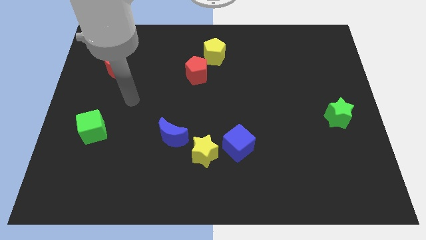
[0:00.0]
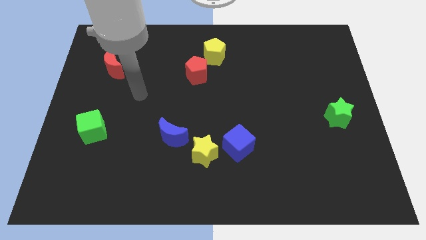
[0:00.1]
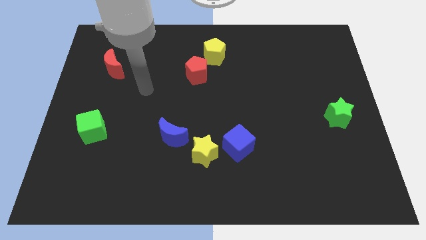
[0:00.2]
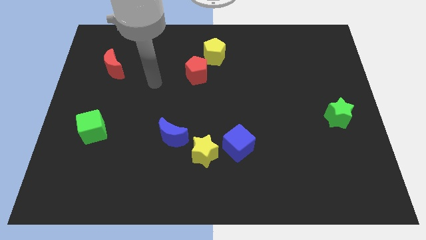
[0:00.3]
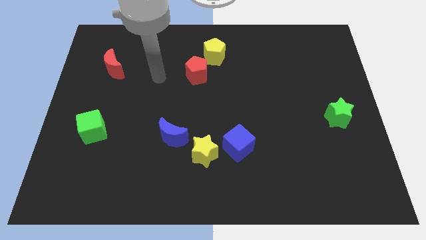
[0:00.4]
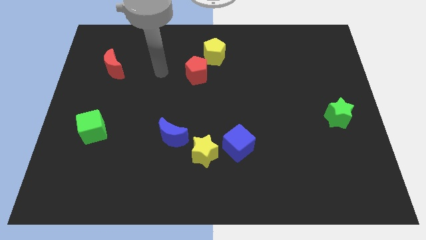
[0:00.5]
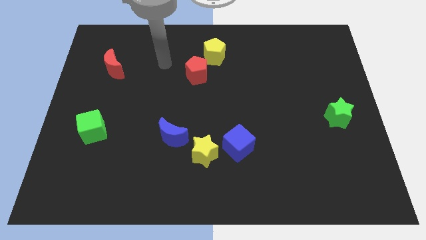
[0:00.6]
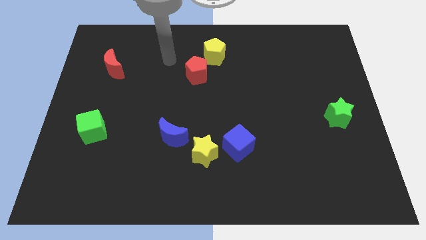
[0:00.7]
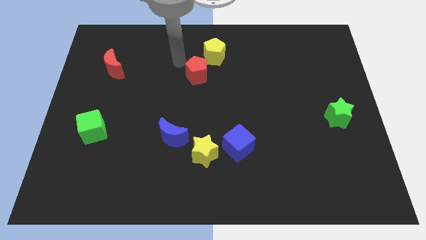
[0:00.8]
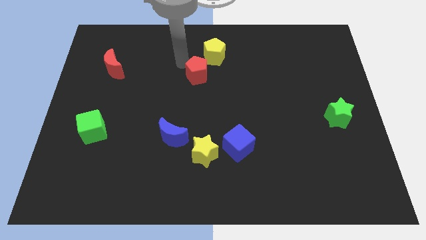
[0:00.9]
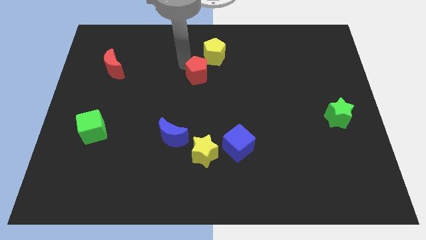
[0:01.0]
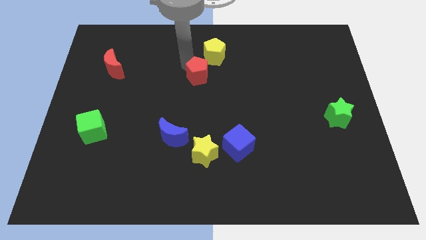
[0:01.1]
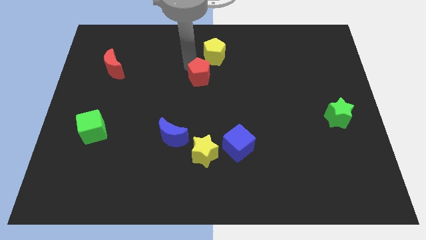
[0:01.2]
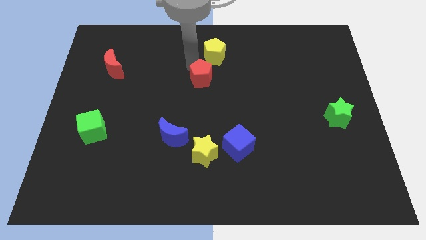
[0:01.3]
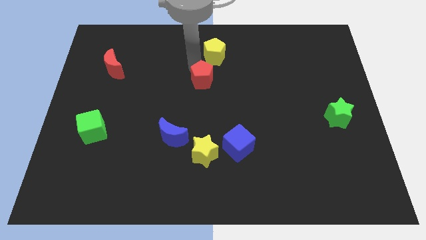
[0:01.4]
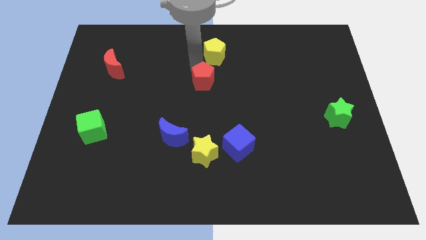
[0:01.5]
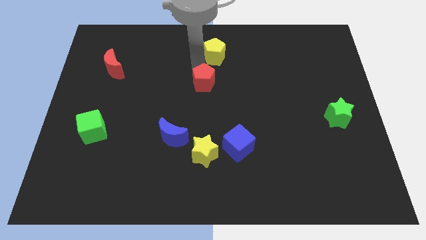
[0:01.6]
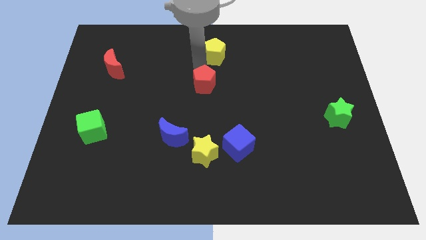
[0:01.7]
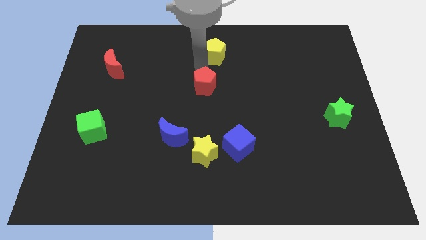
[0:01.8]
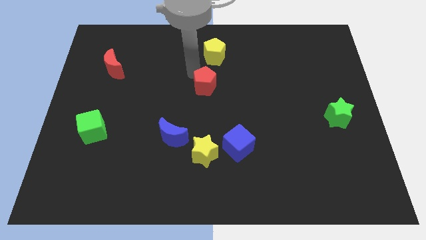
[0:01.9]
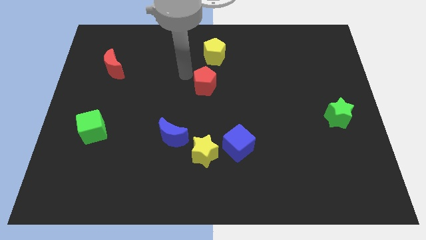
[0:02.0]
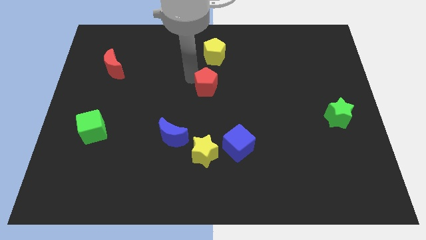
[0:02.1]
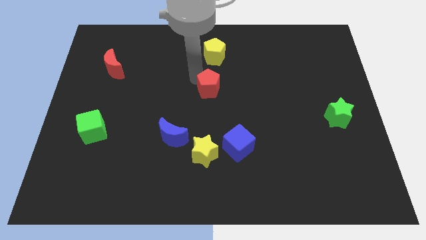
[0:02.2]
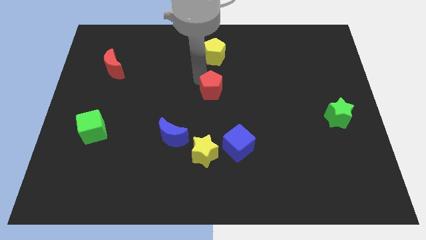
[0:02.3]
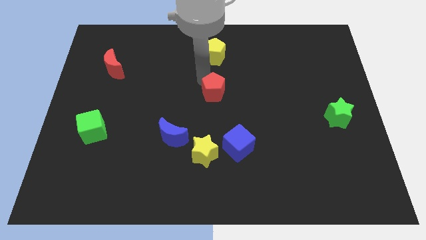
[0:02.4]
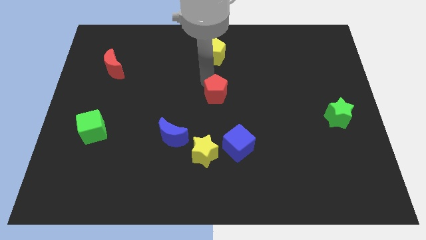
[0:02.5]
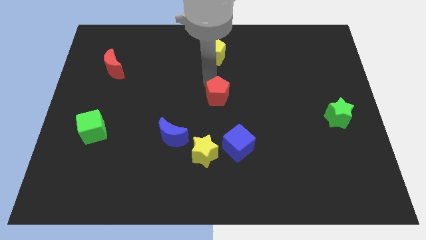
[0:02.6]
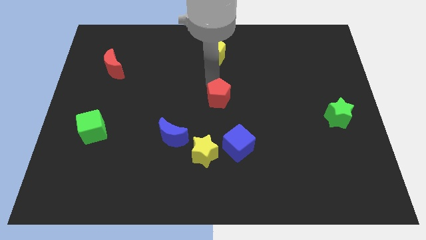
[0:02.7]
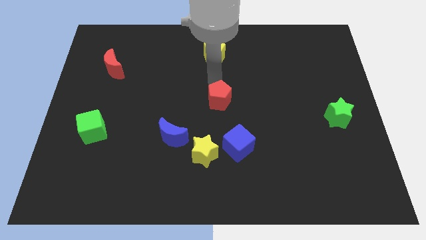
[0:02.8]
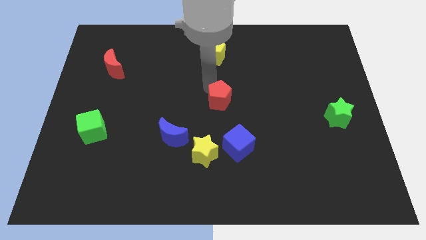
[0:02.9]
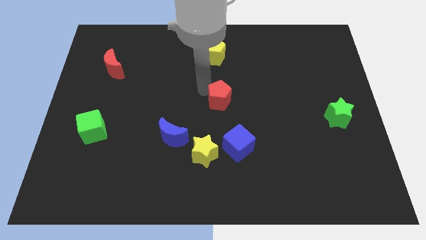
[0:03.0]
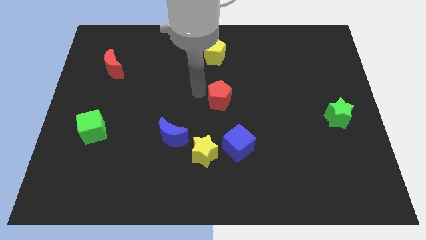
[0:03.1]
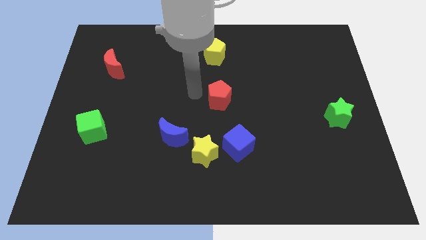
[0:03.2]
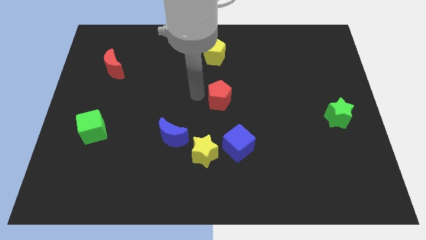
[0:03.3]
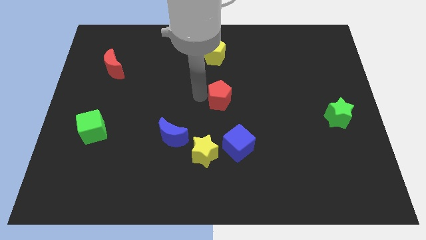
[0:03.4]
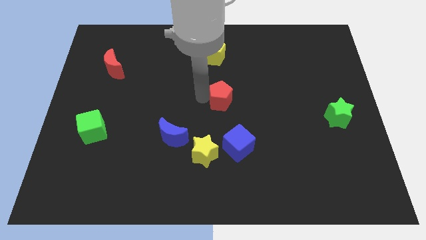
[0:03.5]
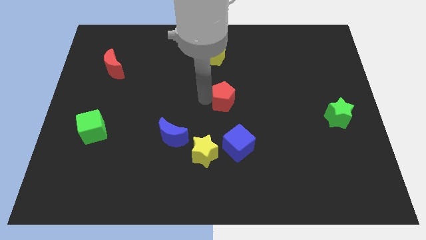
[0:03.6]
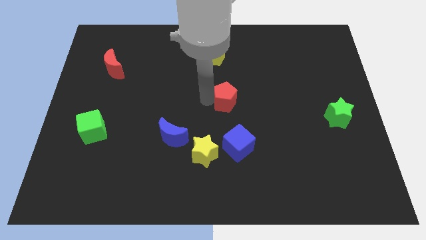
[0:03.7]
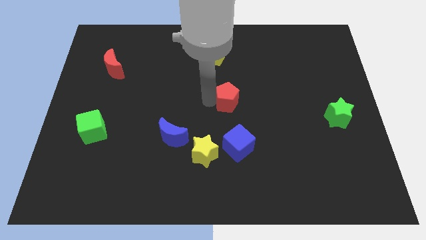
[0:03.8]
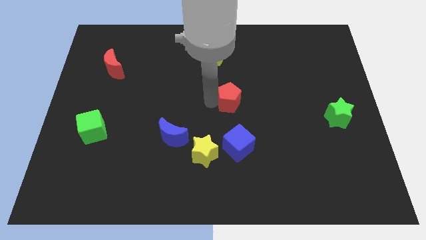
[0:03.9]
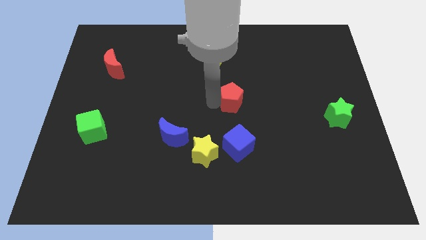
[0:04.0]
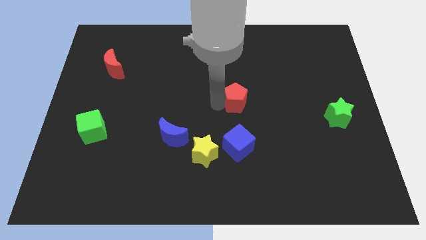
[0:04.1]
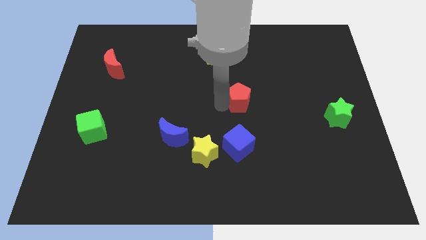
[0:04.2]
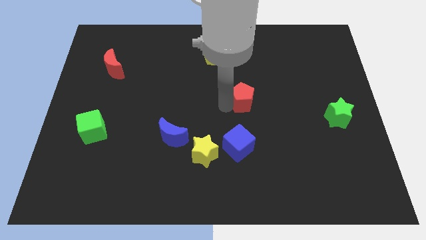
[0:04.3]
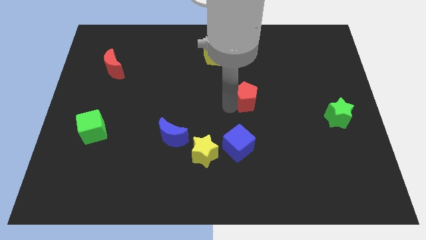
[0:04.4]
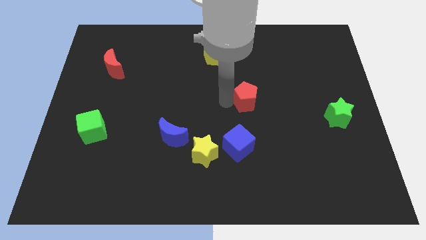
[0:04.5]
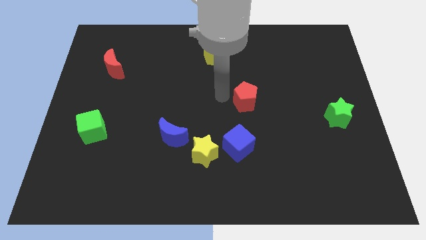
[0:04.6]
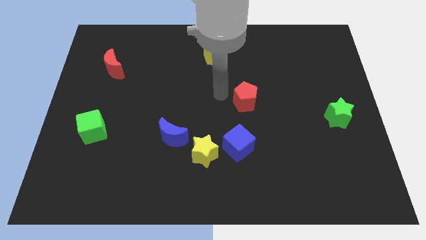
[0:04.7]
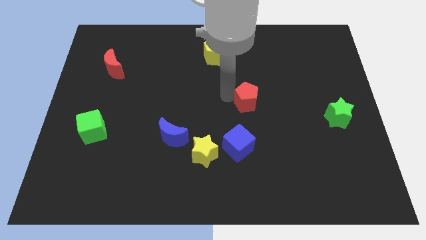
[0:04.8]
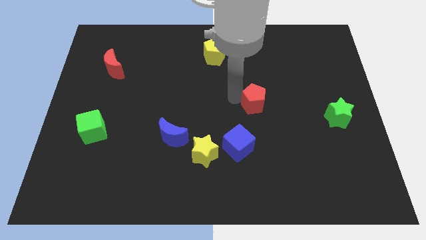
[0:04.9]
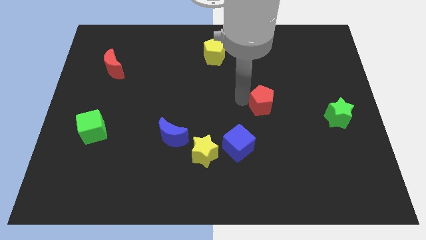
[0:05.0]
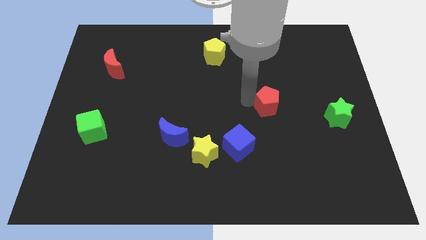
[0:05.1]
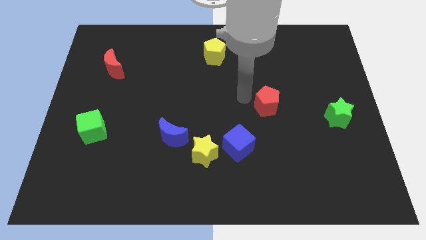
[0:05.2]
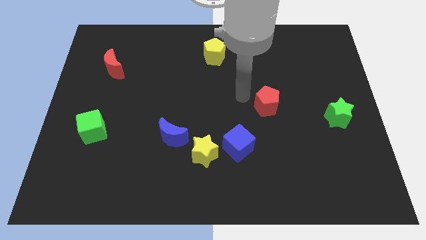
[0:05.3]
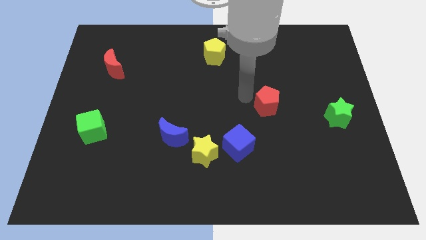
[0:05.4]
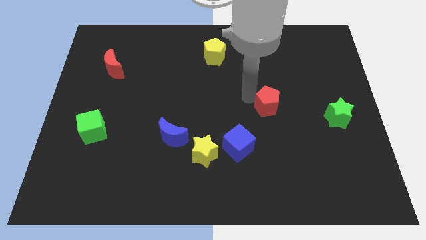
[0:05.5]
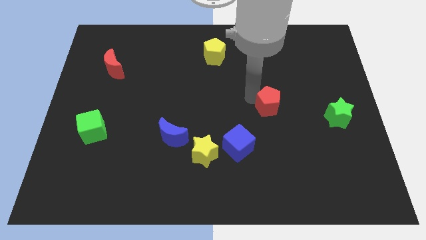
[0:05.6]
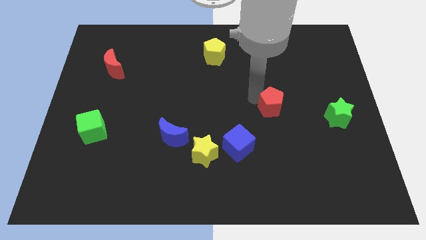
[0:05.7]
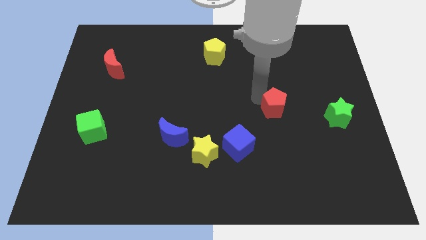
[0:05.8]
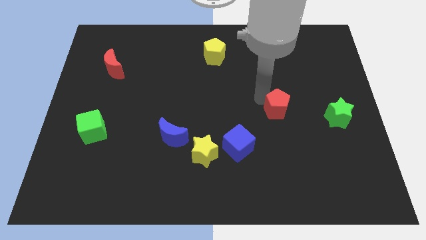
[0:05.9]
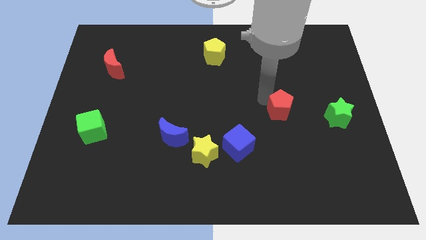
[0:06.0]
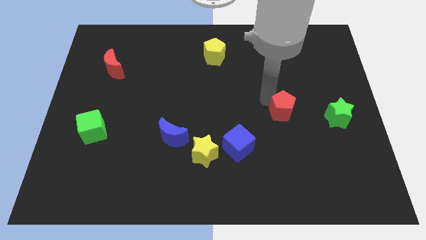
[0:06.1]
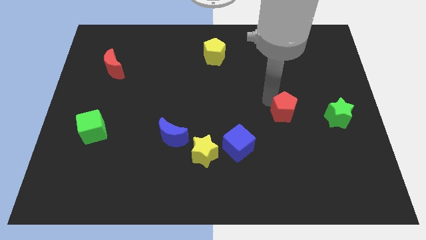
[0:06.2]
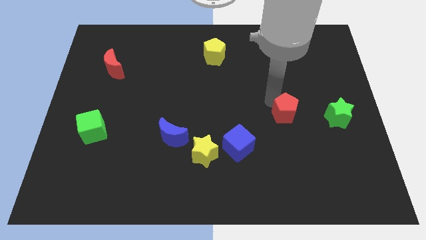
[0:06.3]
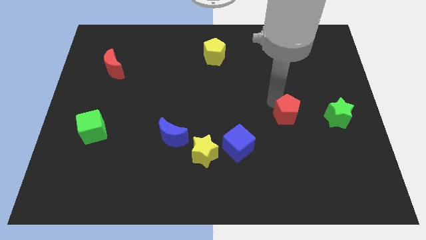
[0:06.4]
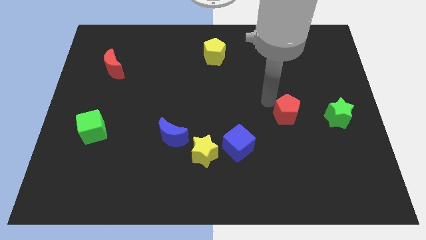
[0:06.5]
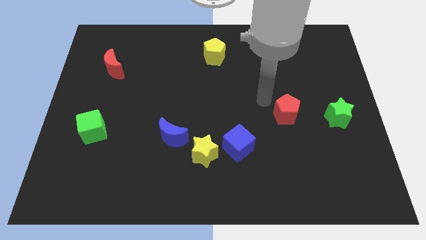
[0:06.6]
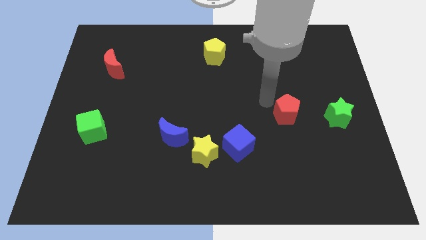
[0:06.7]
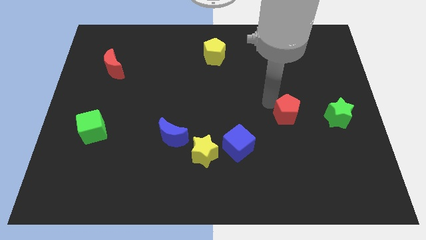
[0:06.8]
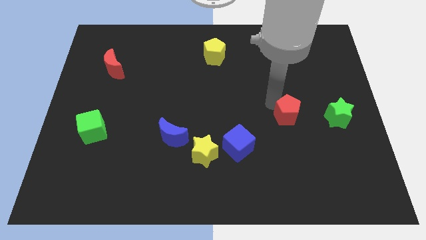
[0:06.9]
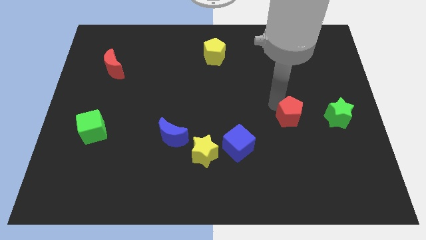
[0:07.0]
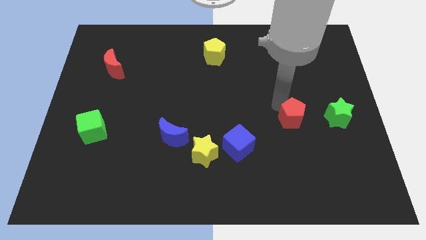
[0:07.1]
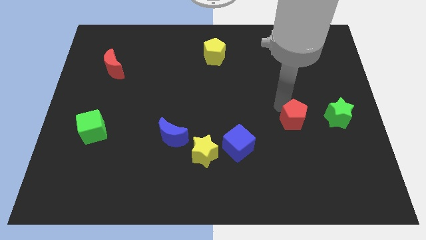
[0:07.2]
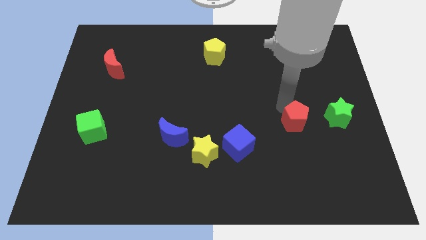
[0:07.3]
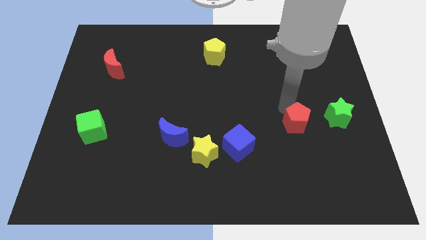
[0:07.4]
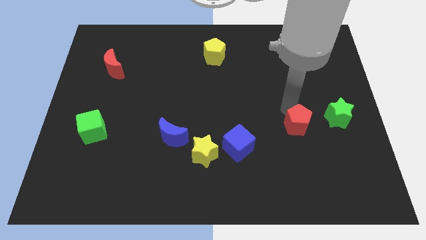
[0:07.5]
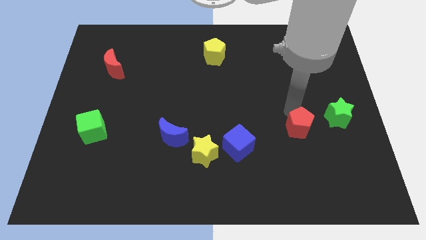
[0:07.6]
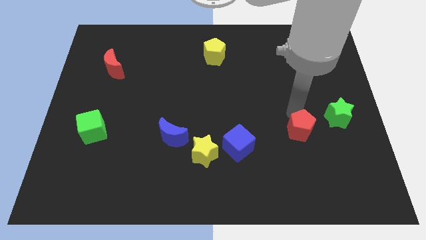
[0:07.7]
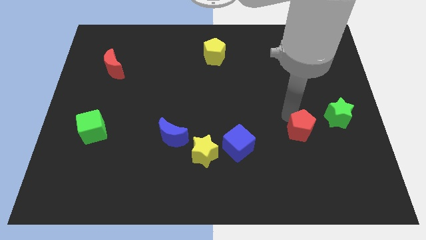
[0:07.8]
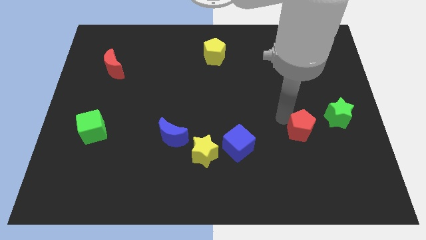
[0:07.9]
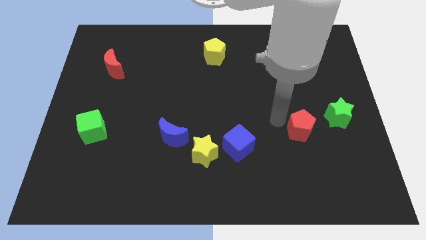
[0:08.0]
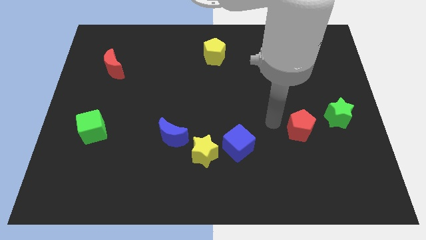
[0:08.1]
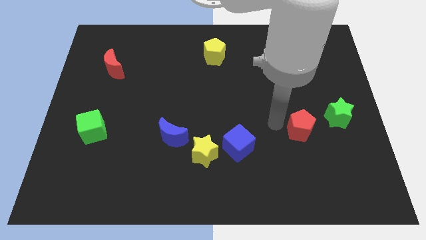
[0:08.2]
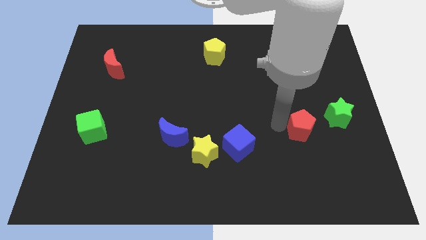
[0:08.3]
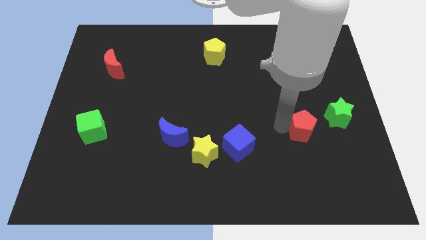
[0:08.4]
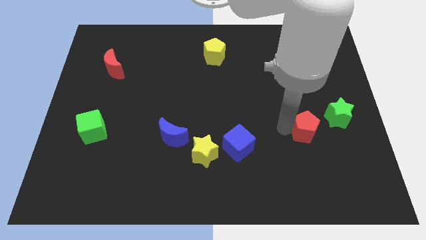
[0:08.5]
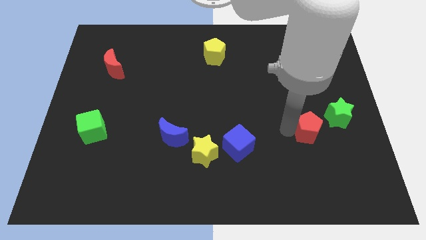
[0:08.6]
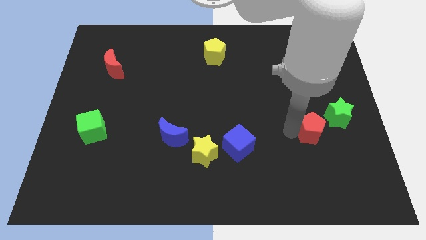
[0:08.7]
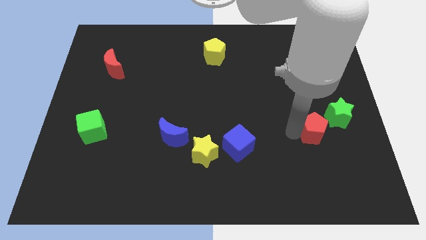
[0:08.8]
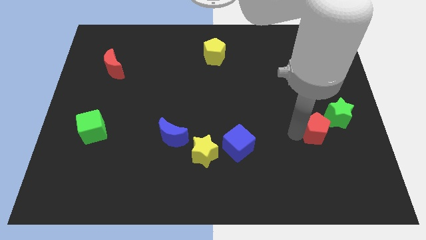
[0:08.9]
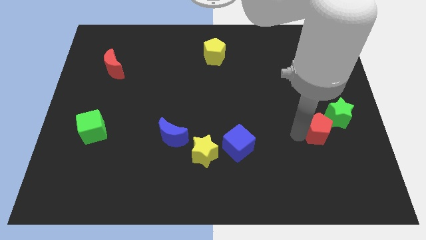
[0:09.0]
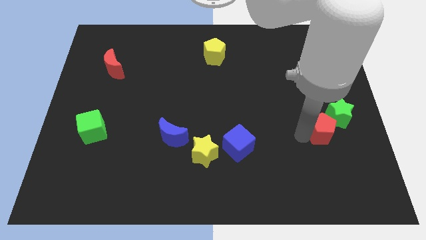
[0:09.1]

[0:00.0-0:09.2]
move the red pentagon below the green star
